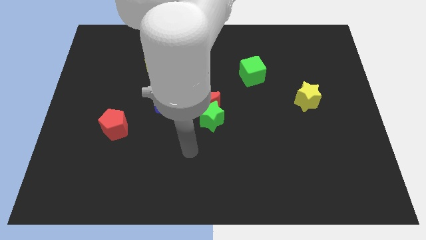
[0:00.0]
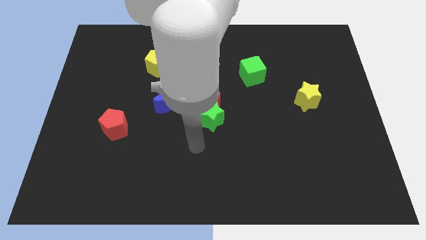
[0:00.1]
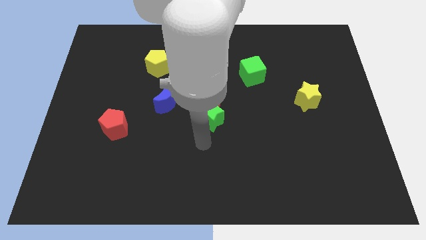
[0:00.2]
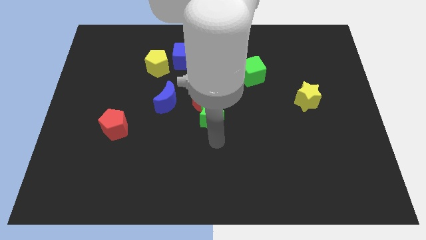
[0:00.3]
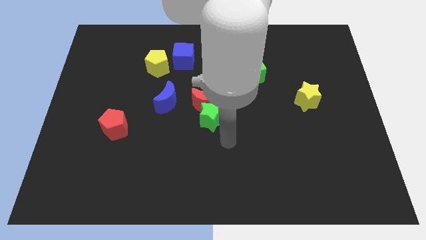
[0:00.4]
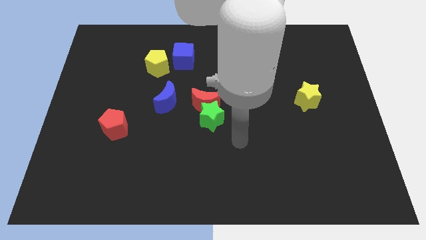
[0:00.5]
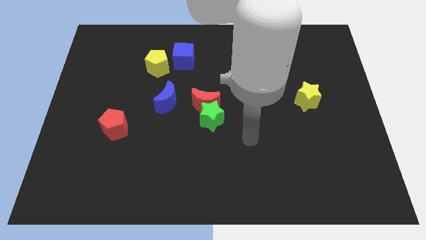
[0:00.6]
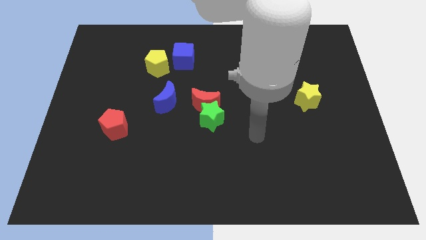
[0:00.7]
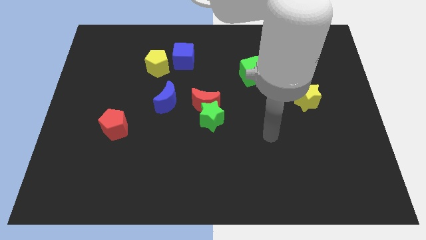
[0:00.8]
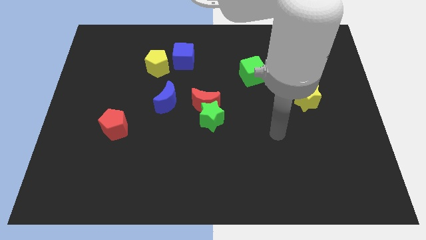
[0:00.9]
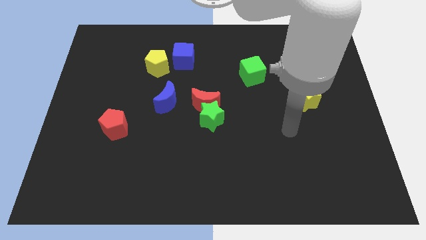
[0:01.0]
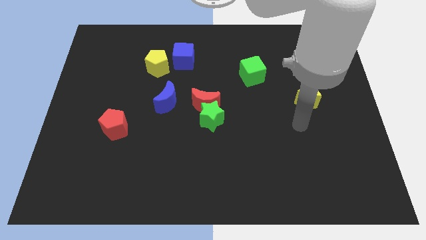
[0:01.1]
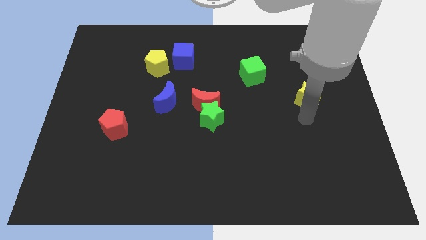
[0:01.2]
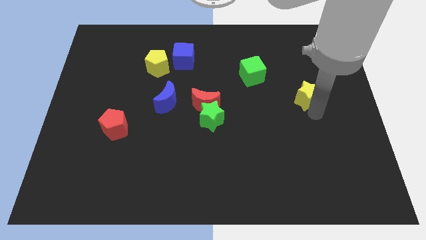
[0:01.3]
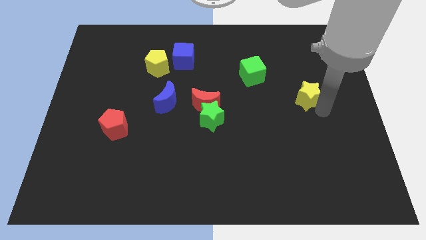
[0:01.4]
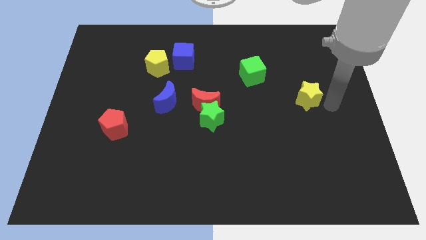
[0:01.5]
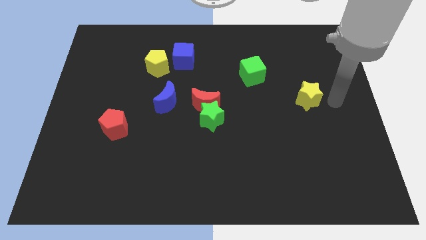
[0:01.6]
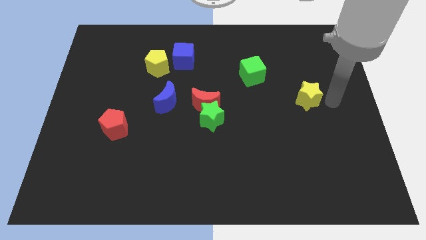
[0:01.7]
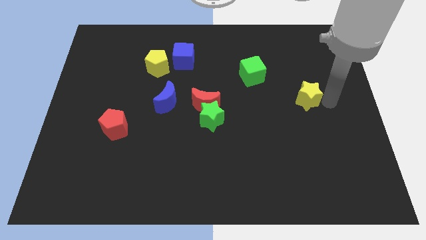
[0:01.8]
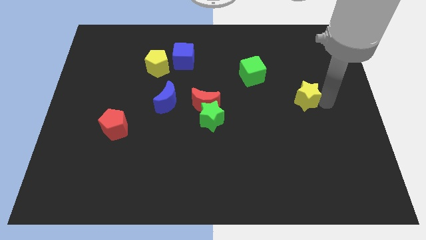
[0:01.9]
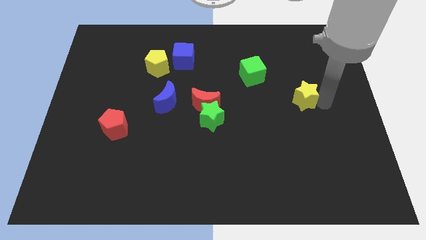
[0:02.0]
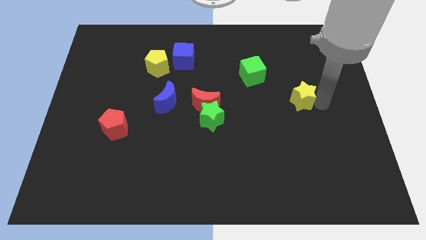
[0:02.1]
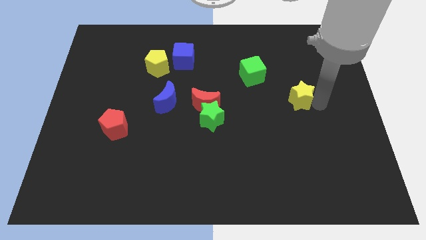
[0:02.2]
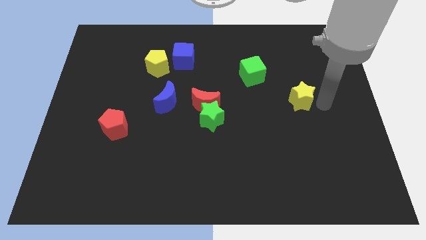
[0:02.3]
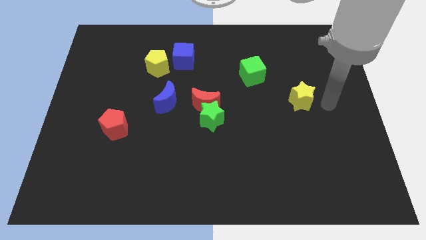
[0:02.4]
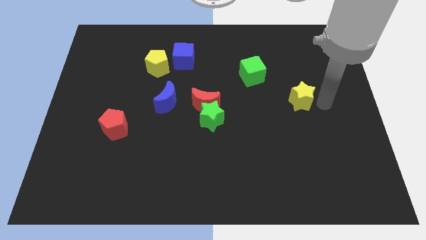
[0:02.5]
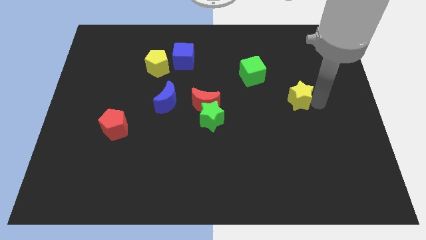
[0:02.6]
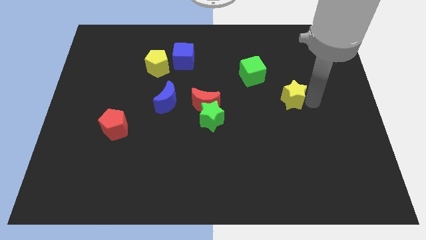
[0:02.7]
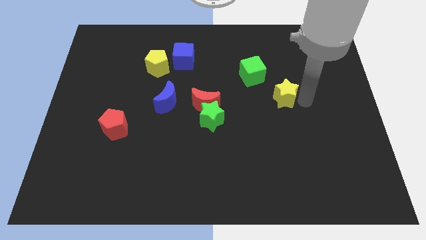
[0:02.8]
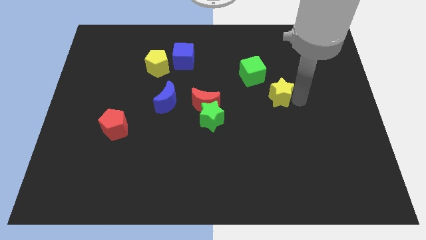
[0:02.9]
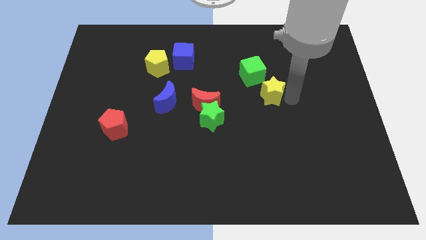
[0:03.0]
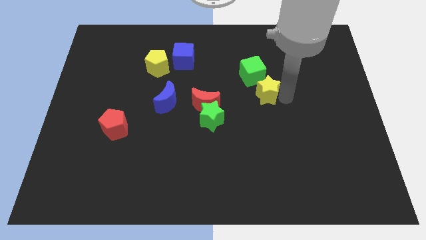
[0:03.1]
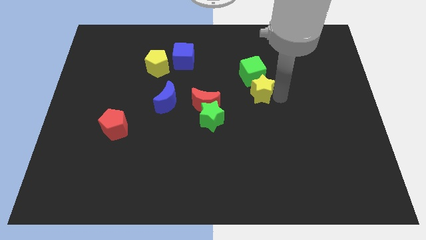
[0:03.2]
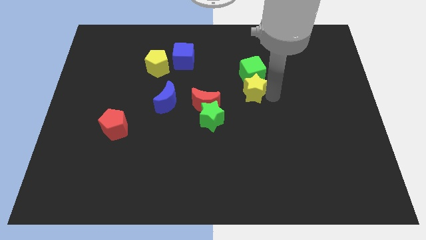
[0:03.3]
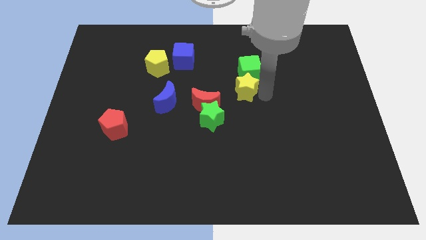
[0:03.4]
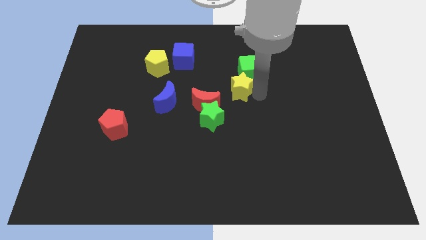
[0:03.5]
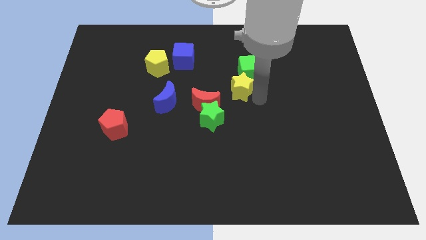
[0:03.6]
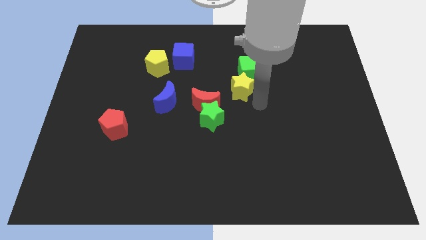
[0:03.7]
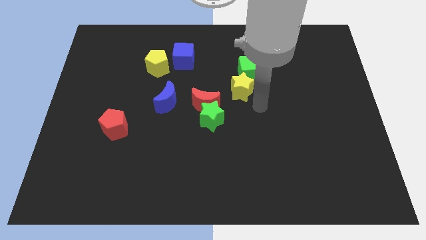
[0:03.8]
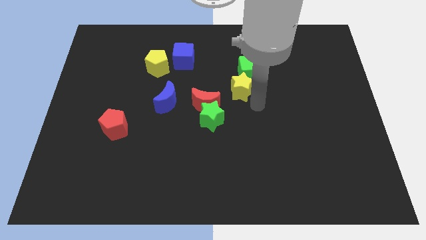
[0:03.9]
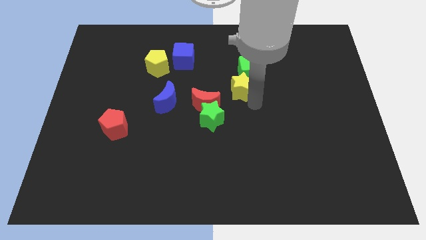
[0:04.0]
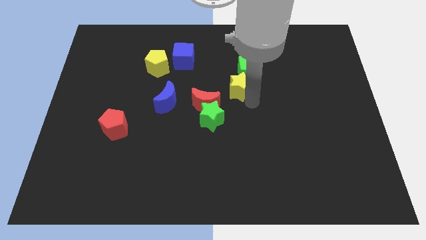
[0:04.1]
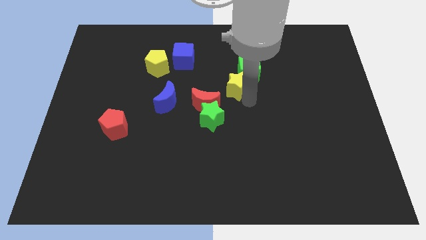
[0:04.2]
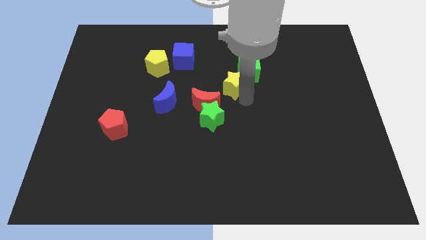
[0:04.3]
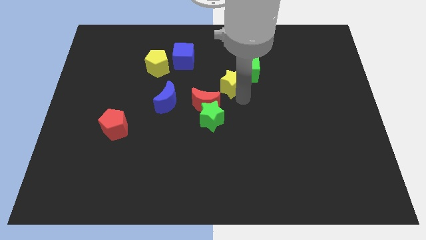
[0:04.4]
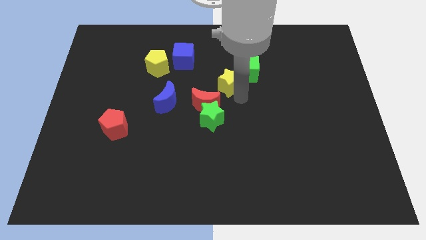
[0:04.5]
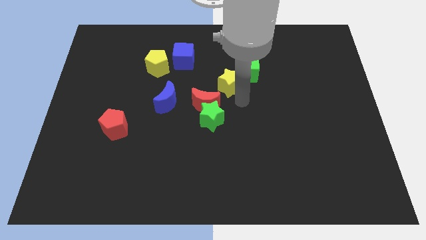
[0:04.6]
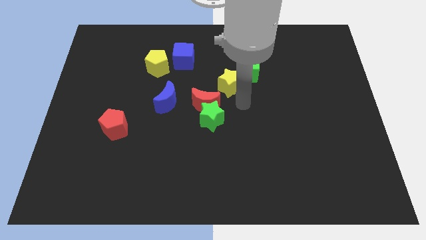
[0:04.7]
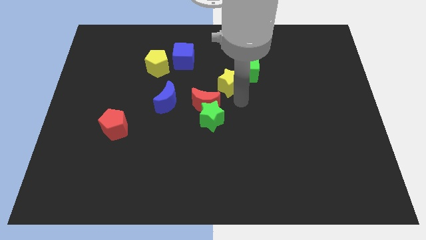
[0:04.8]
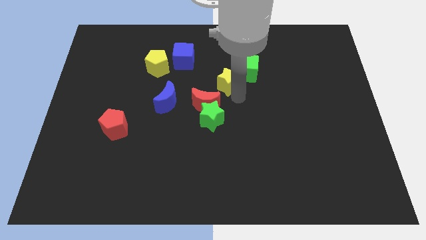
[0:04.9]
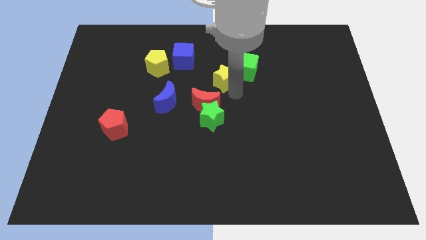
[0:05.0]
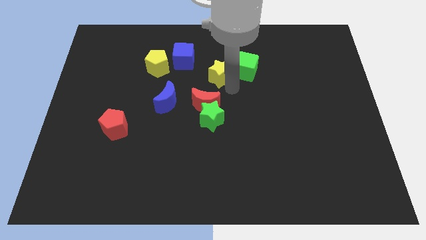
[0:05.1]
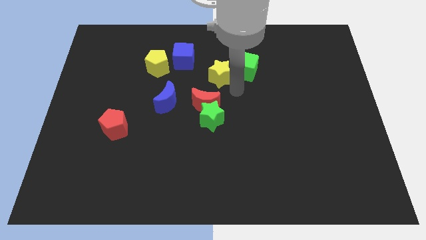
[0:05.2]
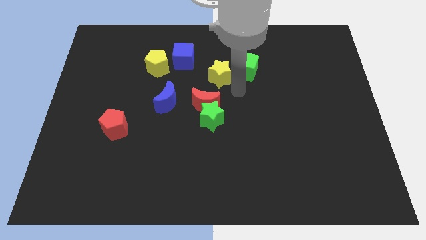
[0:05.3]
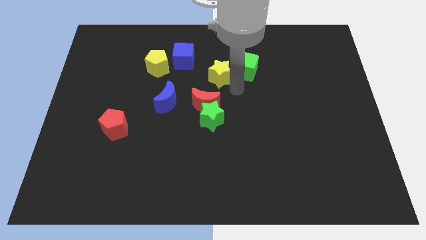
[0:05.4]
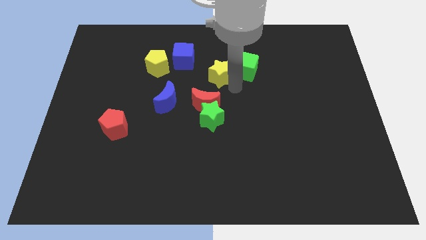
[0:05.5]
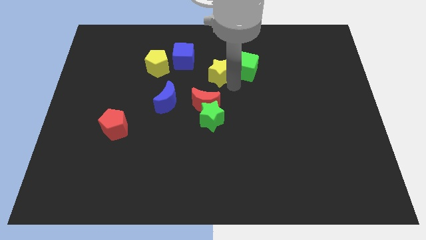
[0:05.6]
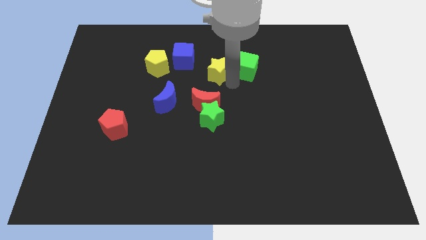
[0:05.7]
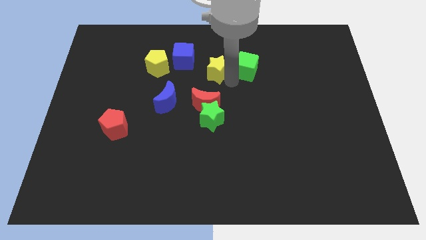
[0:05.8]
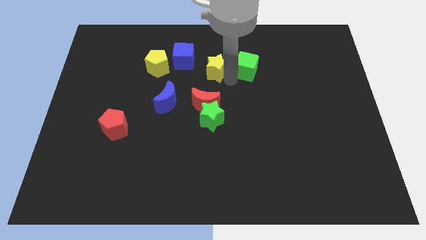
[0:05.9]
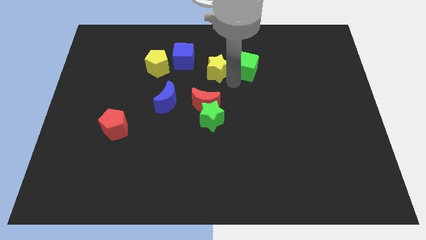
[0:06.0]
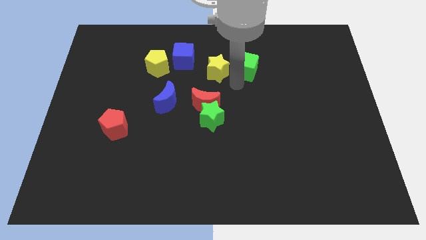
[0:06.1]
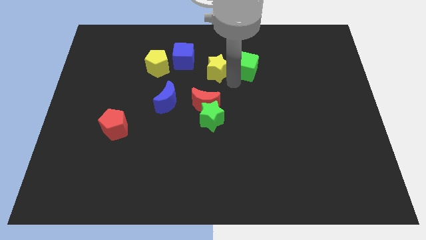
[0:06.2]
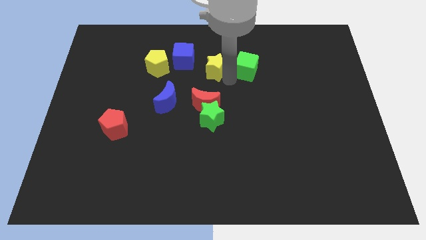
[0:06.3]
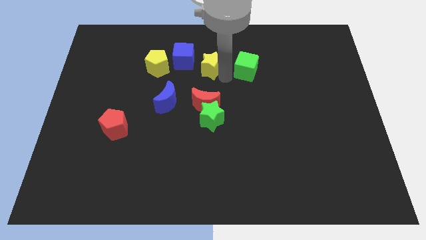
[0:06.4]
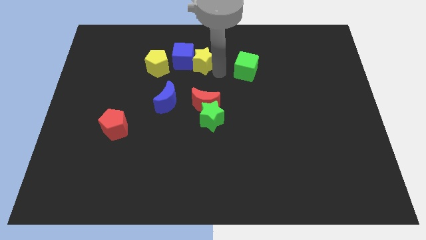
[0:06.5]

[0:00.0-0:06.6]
slide the yellow star next to the blue cube

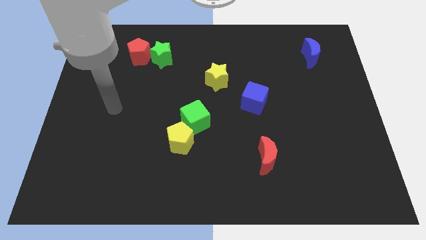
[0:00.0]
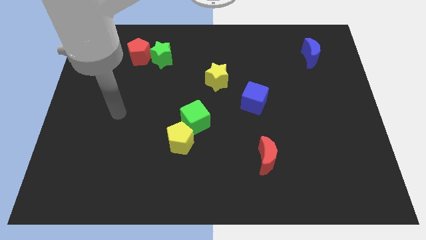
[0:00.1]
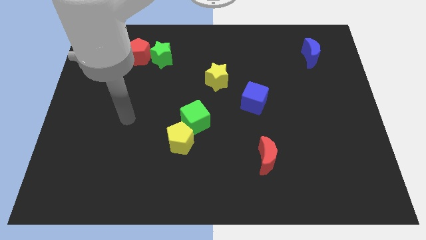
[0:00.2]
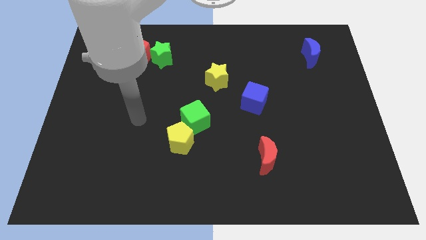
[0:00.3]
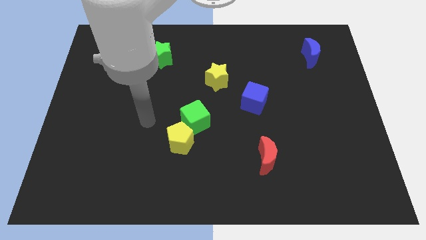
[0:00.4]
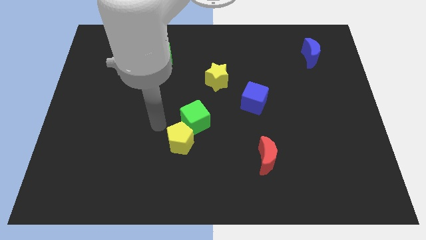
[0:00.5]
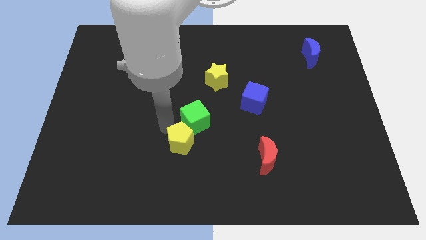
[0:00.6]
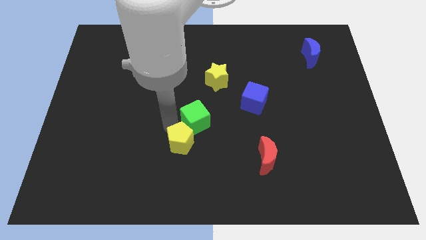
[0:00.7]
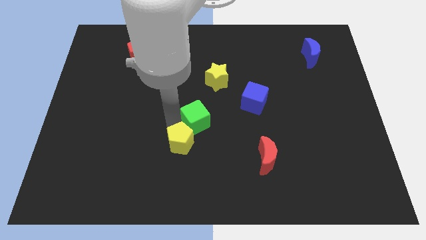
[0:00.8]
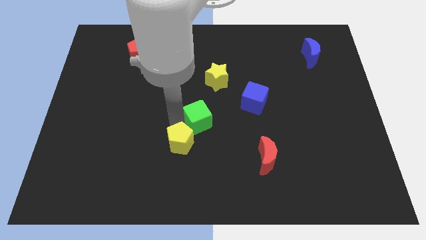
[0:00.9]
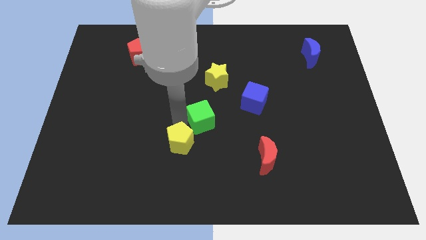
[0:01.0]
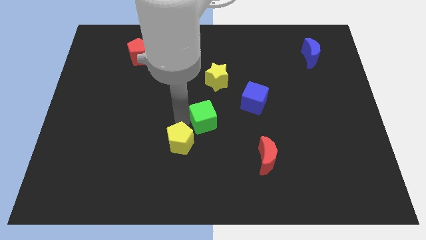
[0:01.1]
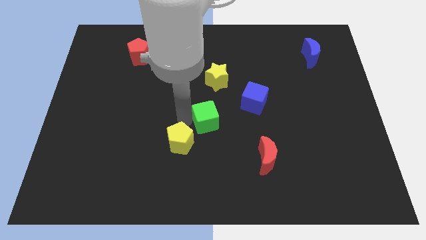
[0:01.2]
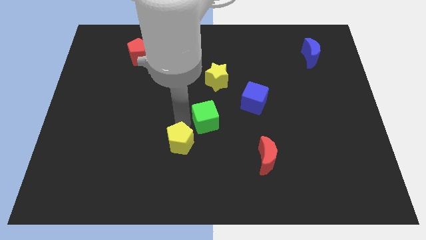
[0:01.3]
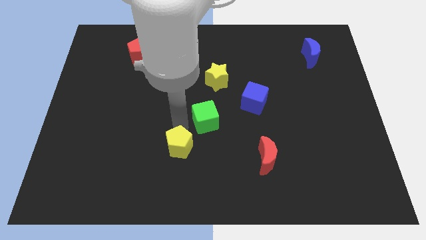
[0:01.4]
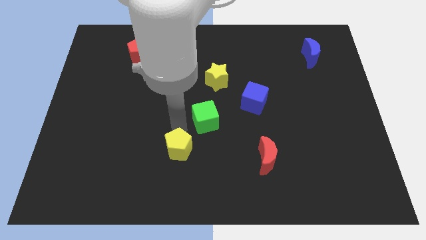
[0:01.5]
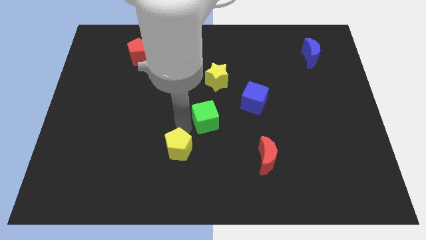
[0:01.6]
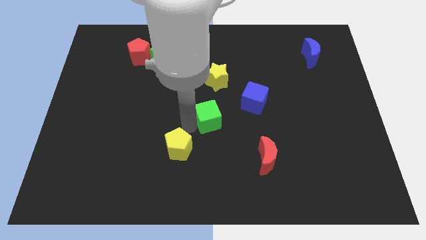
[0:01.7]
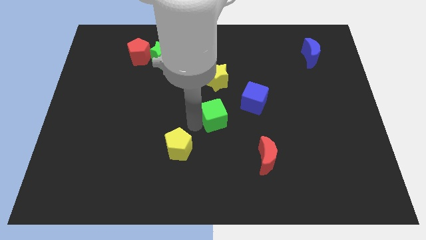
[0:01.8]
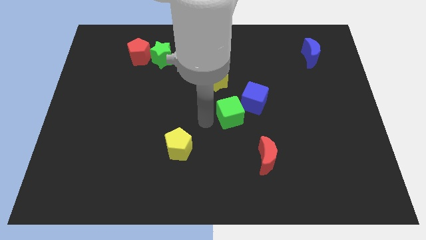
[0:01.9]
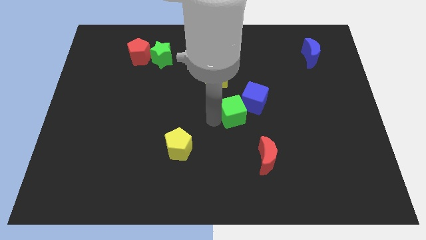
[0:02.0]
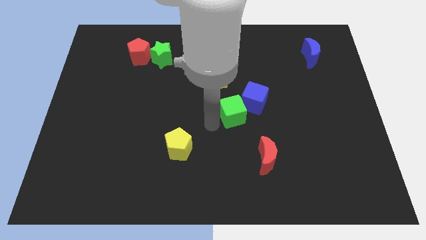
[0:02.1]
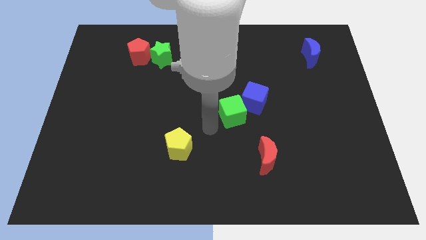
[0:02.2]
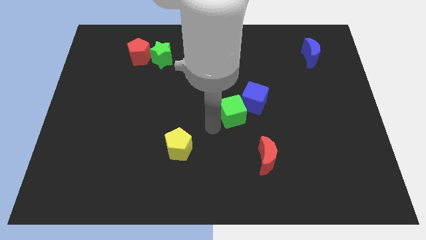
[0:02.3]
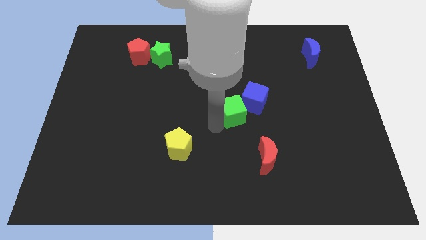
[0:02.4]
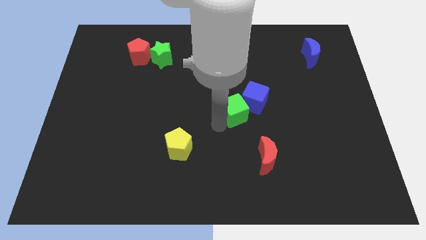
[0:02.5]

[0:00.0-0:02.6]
put the green cube close to the blue cube
